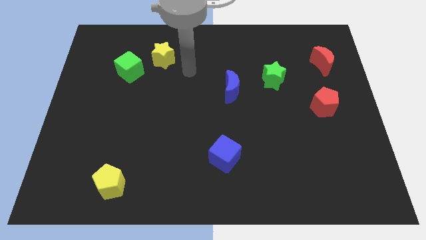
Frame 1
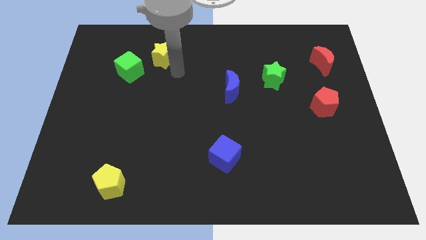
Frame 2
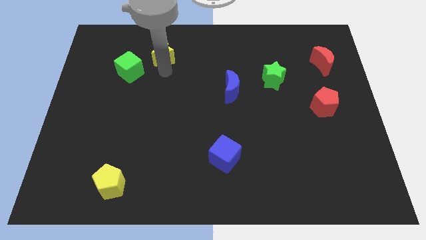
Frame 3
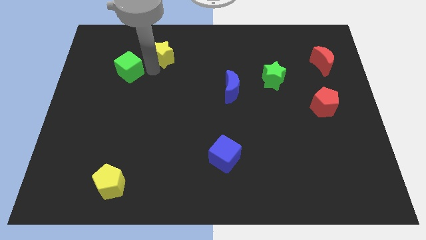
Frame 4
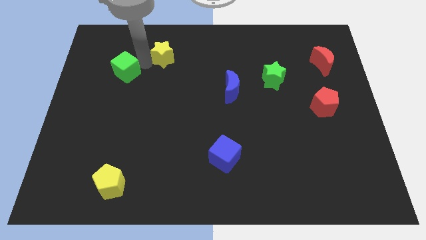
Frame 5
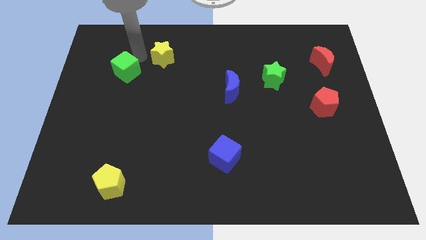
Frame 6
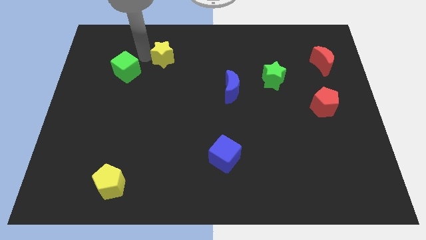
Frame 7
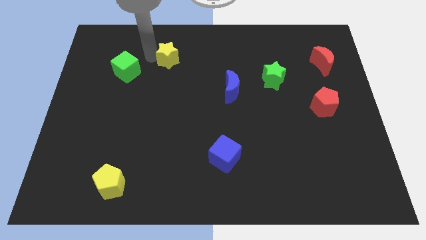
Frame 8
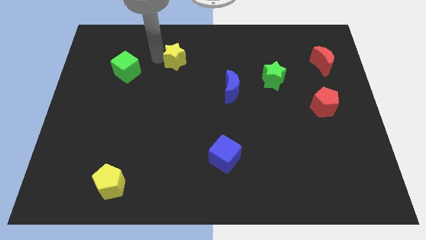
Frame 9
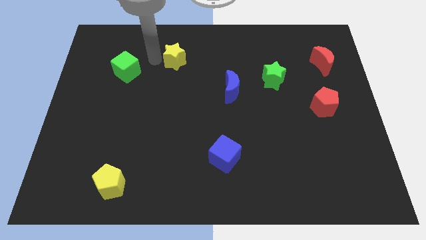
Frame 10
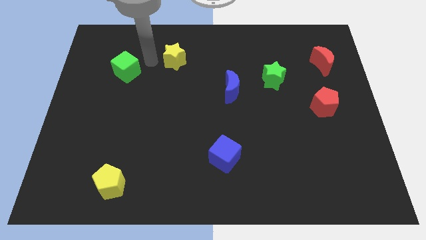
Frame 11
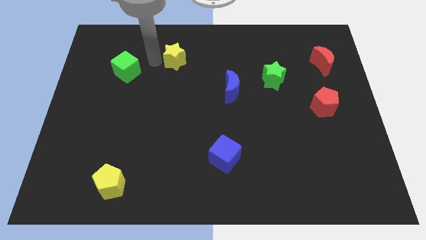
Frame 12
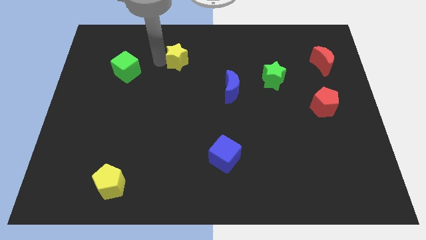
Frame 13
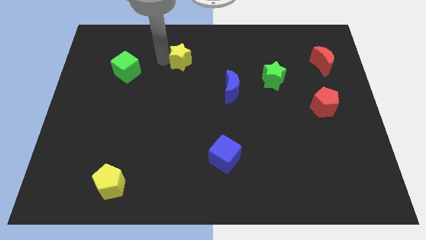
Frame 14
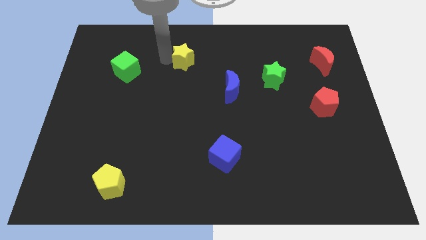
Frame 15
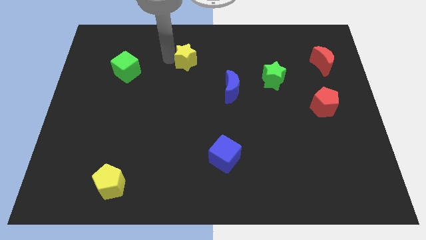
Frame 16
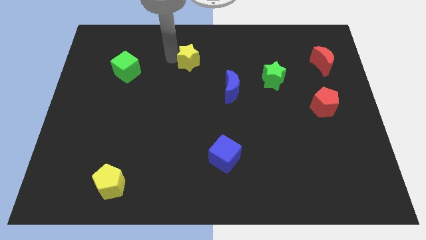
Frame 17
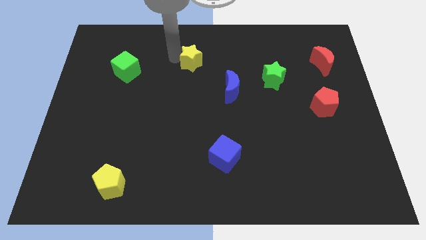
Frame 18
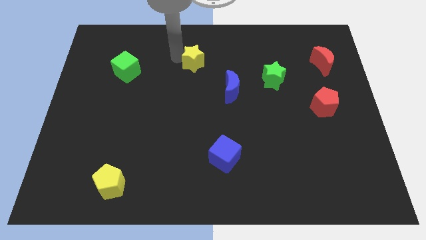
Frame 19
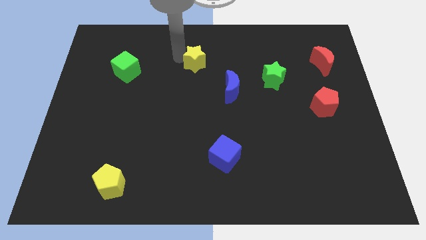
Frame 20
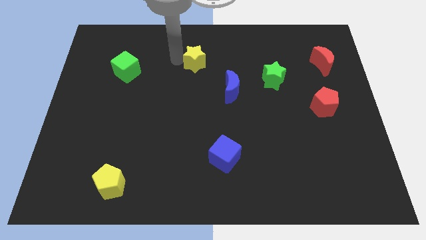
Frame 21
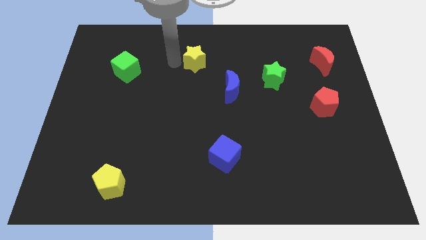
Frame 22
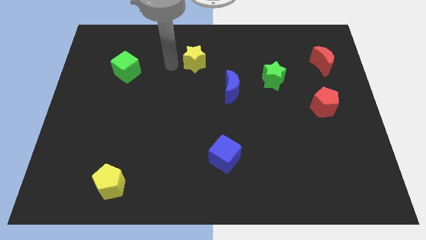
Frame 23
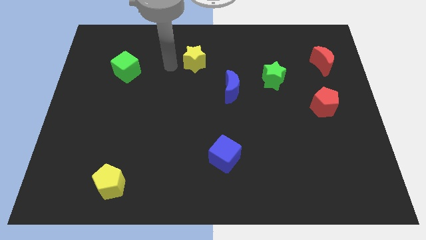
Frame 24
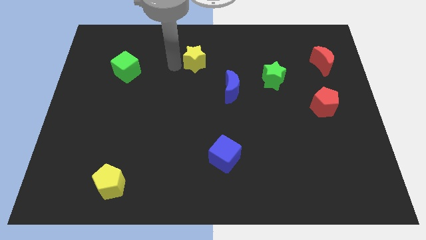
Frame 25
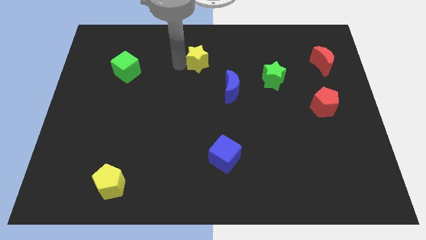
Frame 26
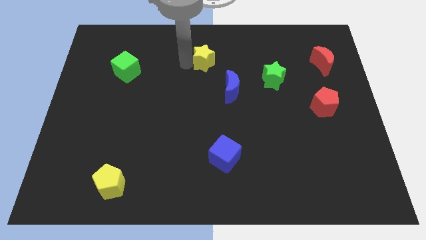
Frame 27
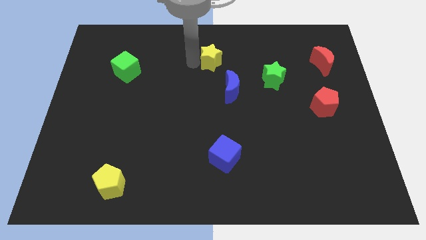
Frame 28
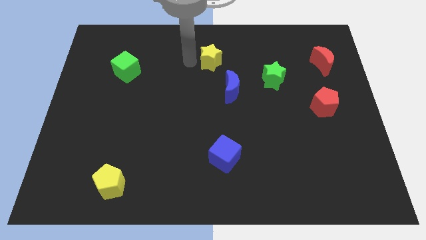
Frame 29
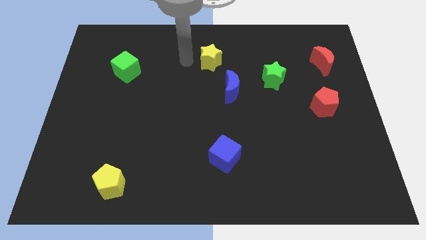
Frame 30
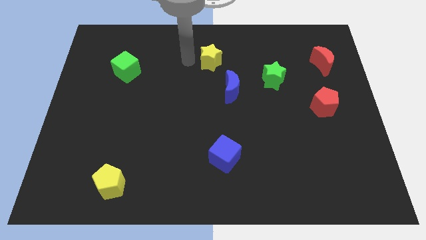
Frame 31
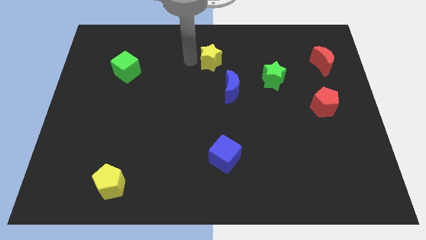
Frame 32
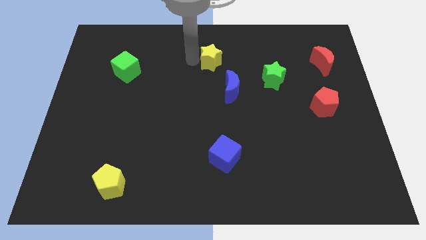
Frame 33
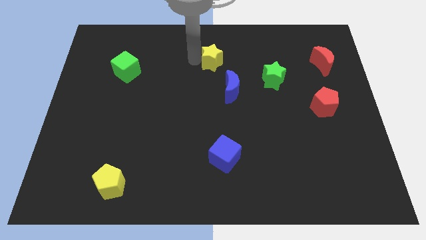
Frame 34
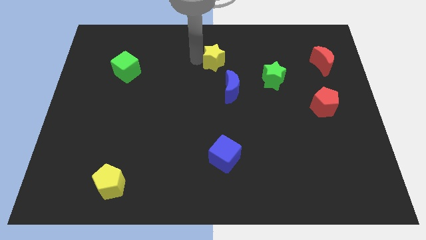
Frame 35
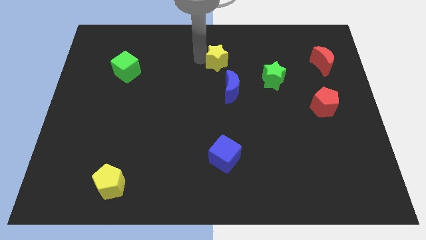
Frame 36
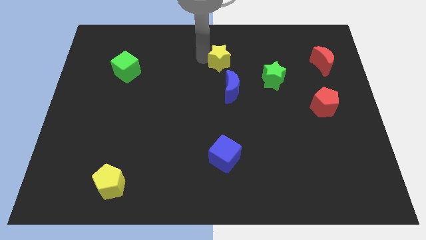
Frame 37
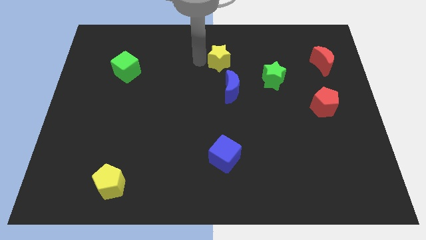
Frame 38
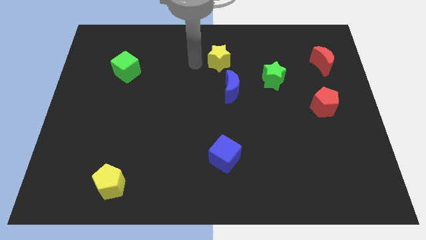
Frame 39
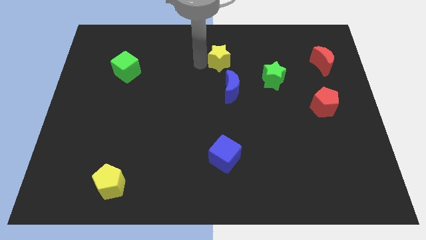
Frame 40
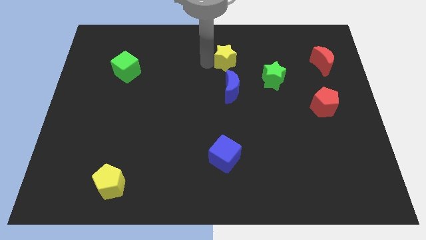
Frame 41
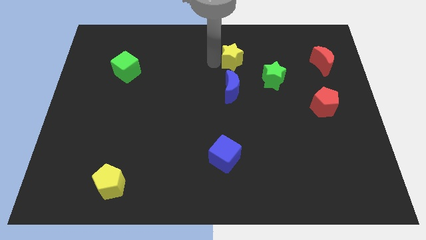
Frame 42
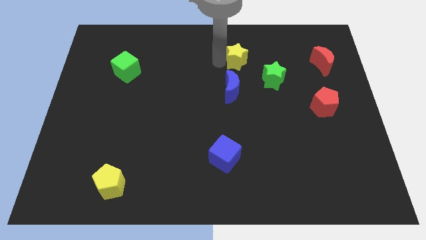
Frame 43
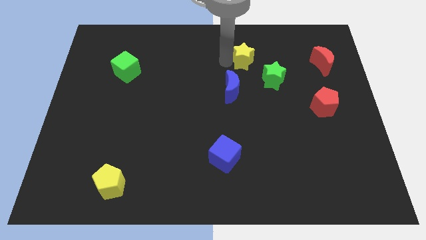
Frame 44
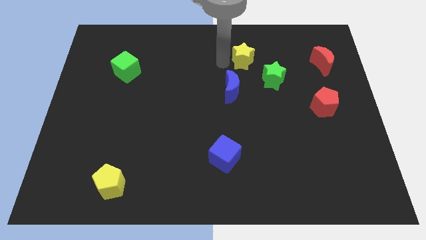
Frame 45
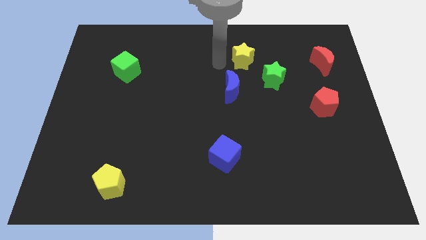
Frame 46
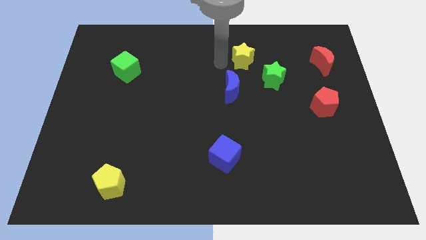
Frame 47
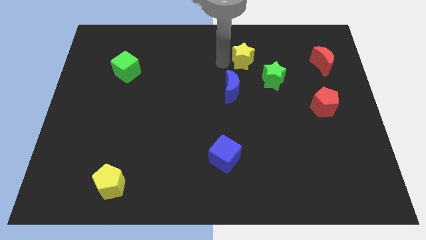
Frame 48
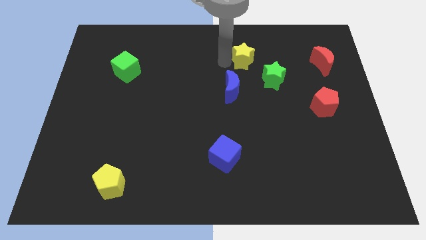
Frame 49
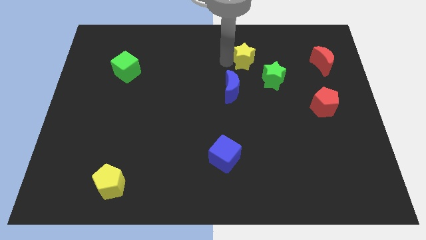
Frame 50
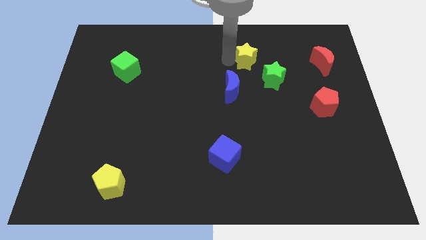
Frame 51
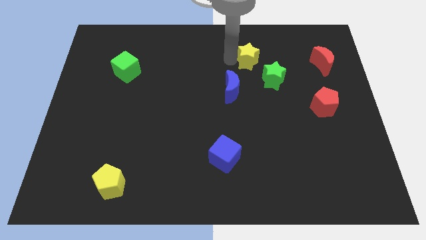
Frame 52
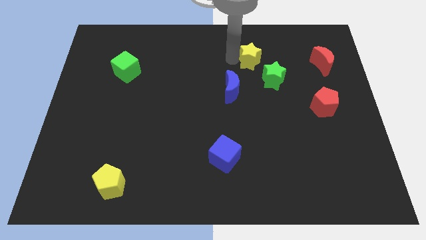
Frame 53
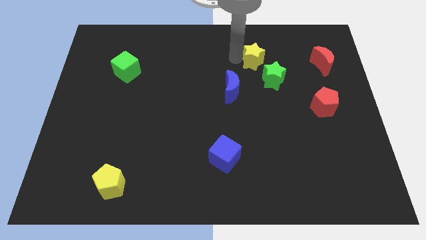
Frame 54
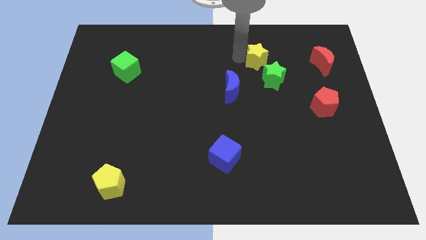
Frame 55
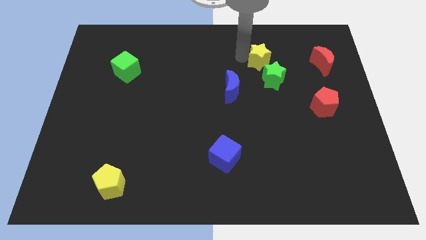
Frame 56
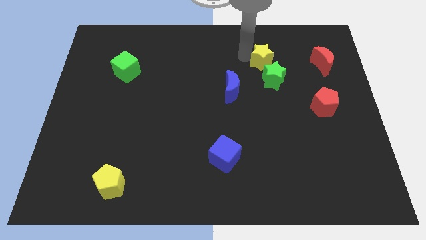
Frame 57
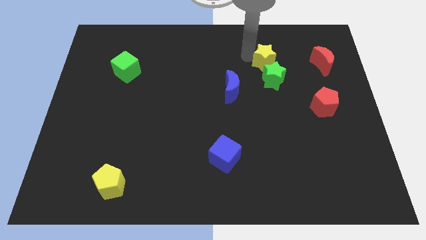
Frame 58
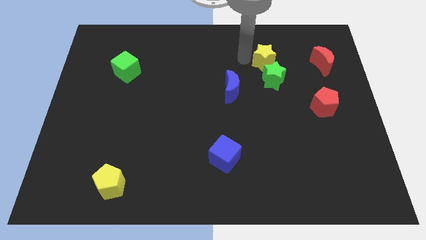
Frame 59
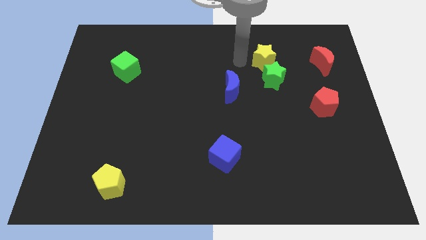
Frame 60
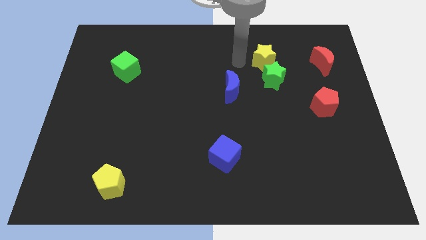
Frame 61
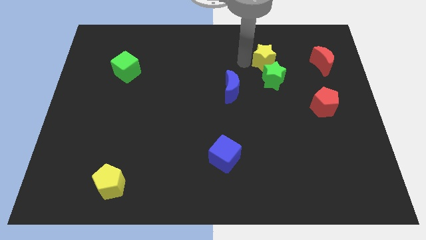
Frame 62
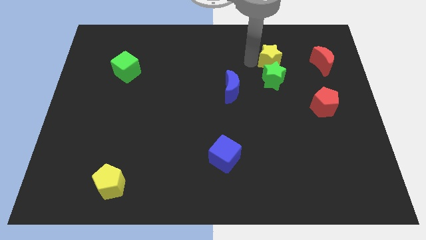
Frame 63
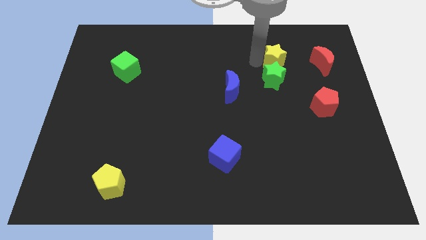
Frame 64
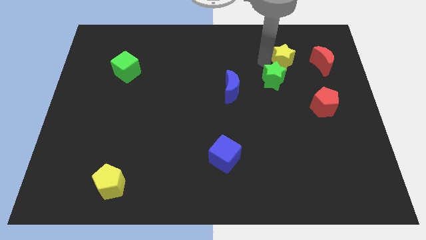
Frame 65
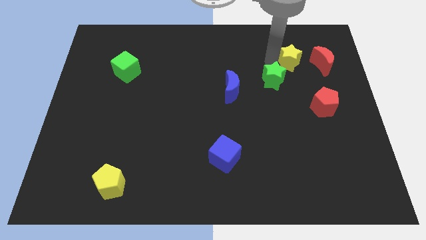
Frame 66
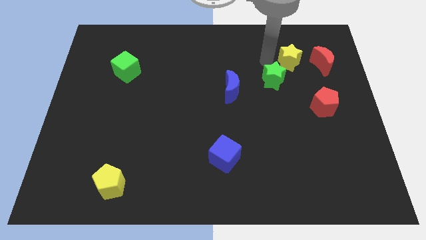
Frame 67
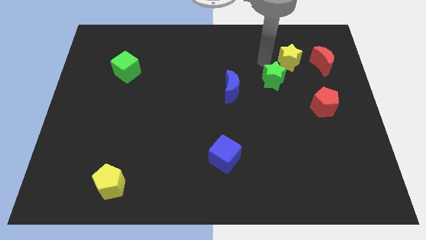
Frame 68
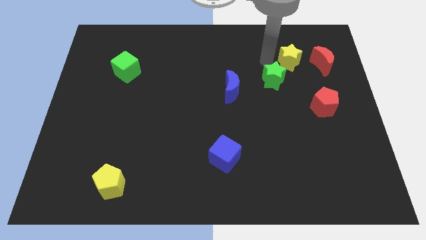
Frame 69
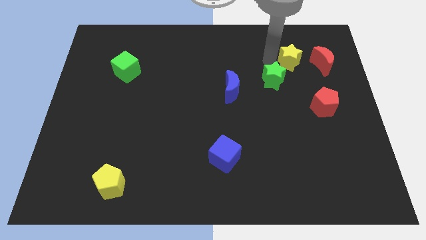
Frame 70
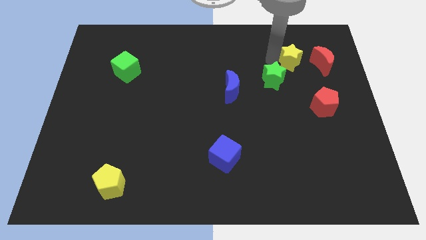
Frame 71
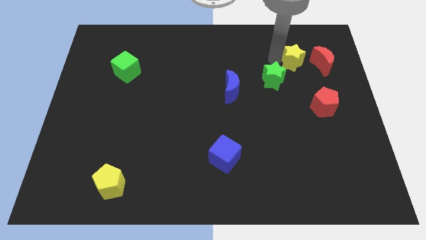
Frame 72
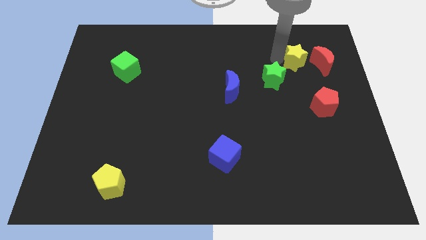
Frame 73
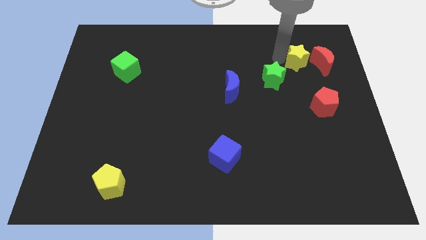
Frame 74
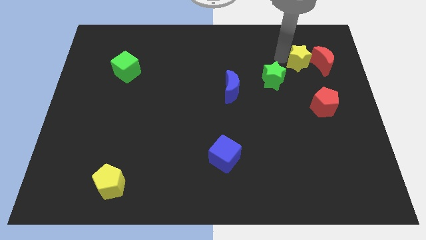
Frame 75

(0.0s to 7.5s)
put the yellow star close to the red moon
